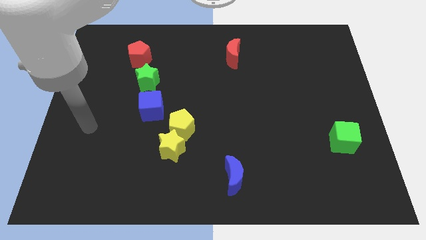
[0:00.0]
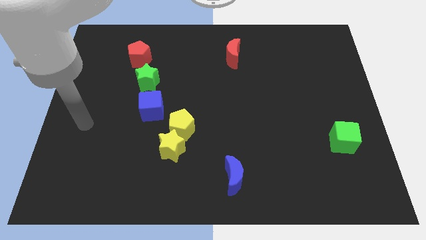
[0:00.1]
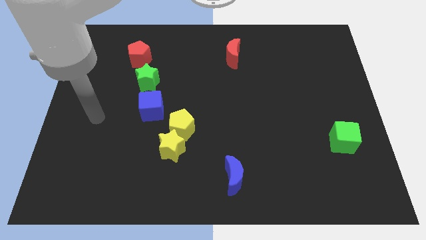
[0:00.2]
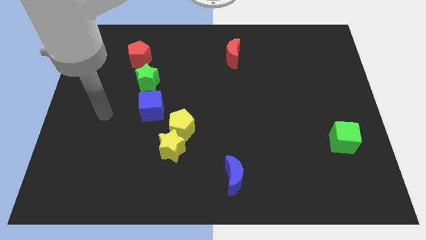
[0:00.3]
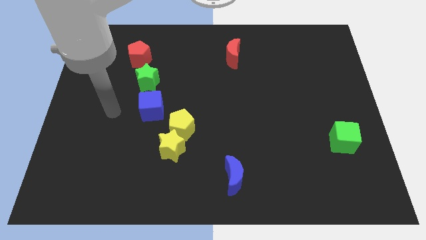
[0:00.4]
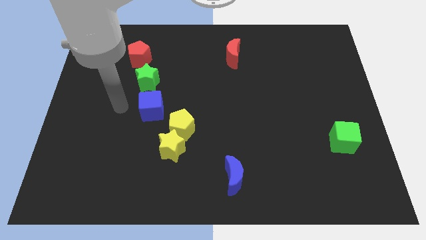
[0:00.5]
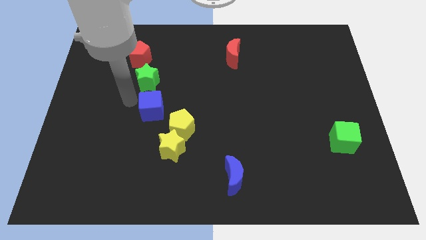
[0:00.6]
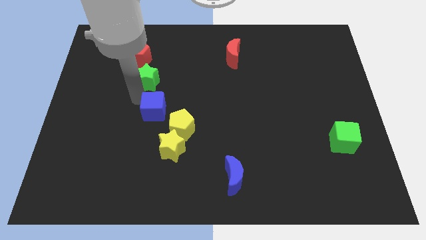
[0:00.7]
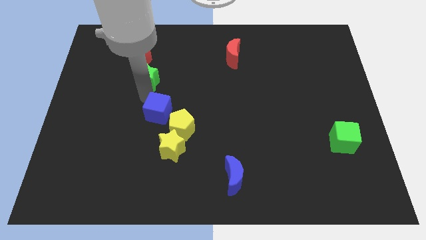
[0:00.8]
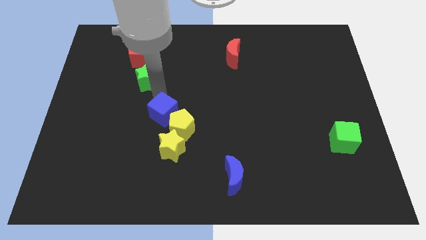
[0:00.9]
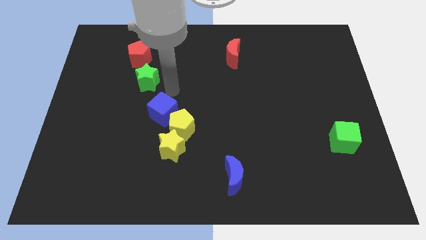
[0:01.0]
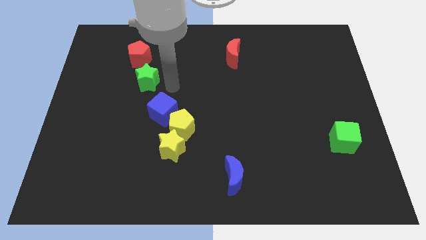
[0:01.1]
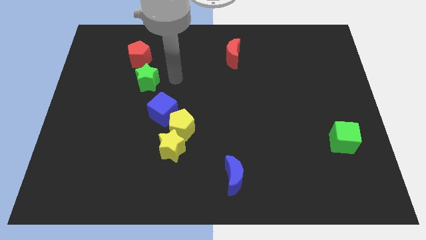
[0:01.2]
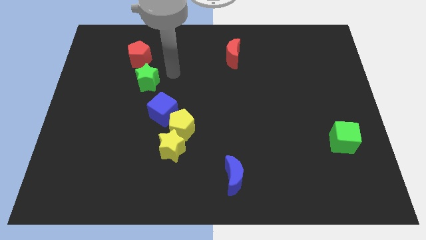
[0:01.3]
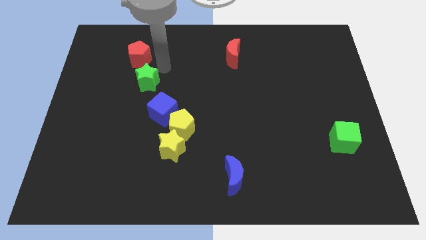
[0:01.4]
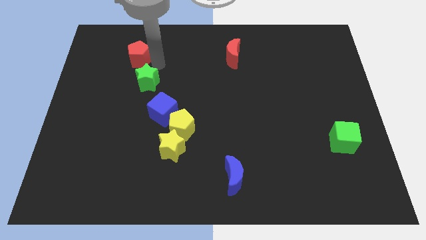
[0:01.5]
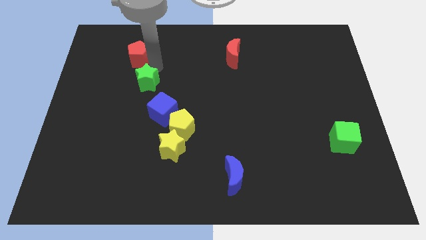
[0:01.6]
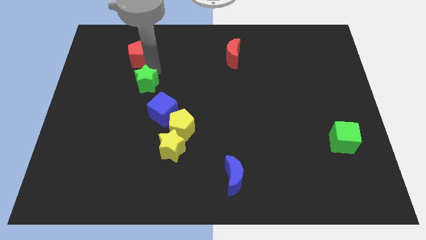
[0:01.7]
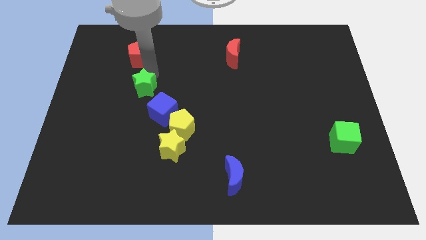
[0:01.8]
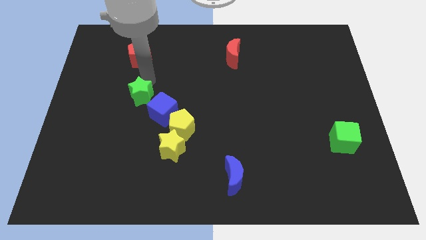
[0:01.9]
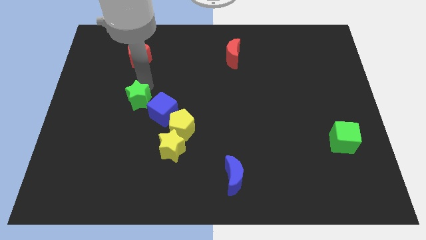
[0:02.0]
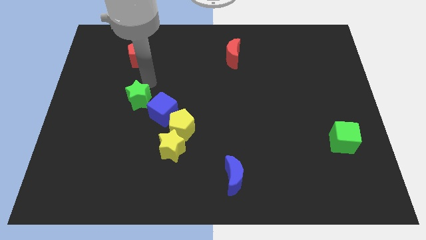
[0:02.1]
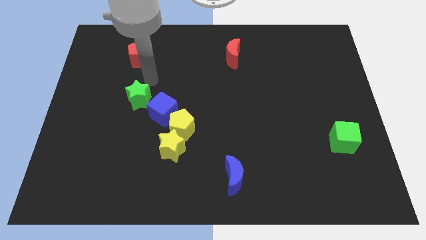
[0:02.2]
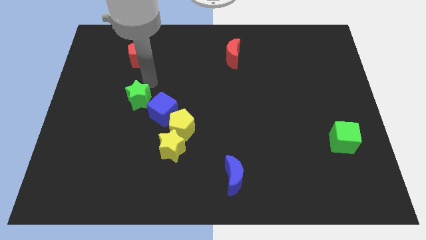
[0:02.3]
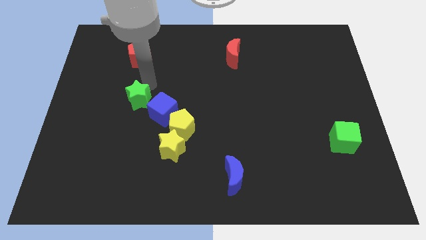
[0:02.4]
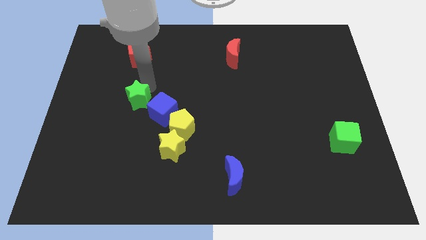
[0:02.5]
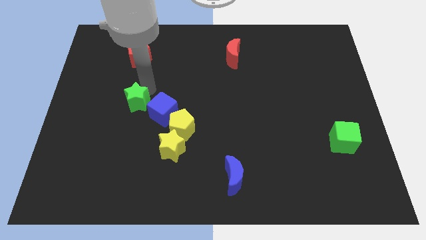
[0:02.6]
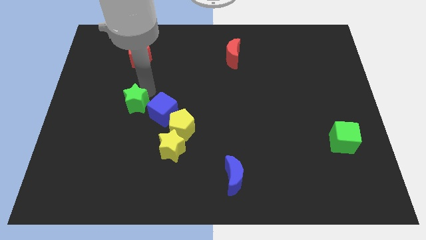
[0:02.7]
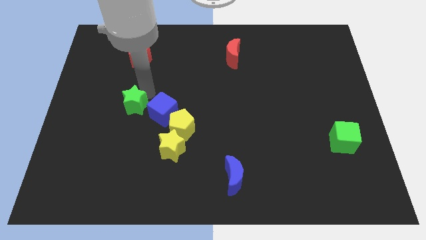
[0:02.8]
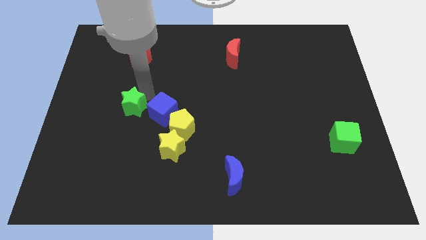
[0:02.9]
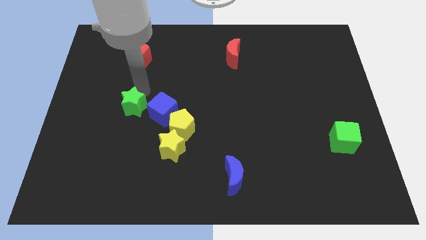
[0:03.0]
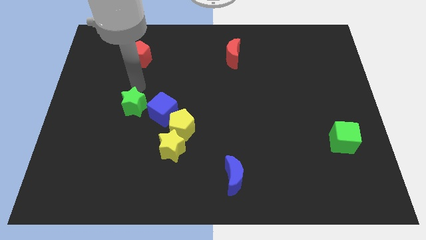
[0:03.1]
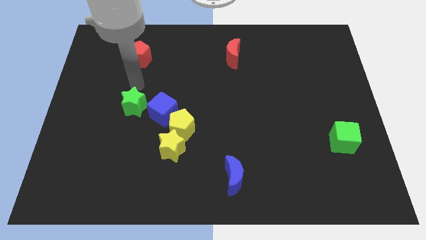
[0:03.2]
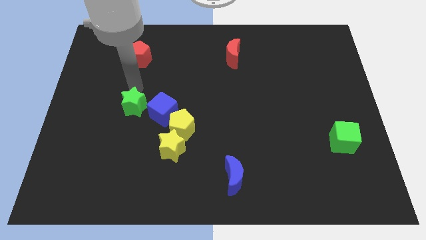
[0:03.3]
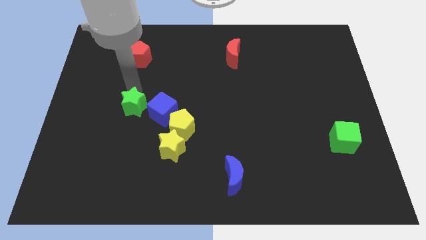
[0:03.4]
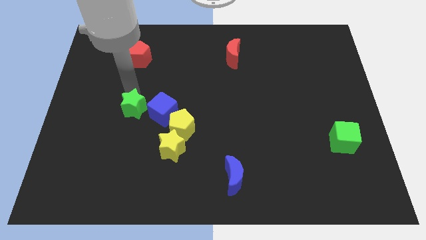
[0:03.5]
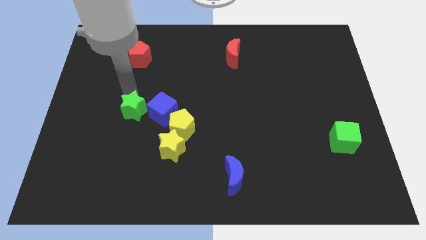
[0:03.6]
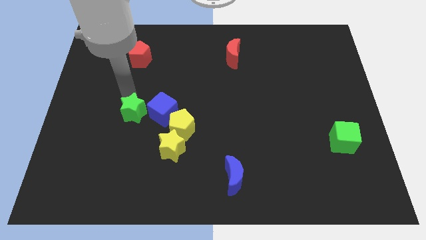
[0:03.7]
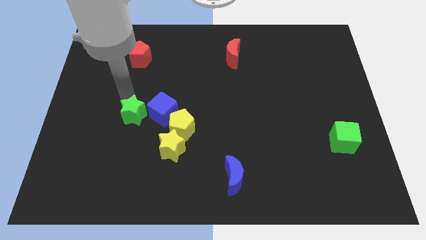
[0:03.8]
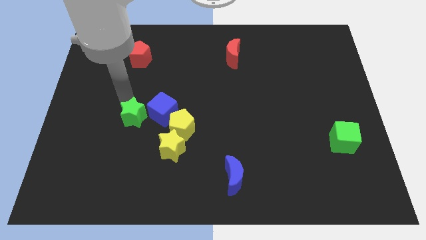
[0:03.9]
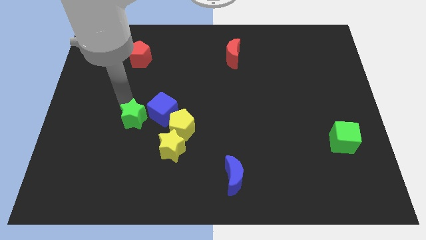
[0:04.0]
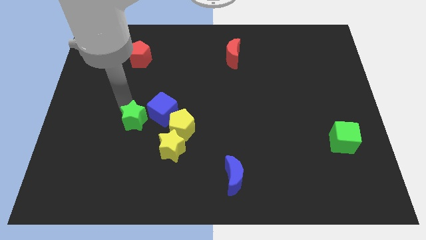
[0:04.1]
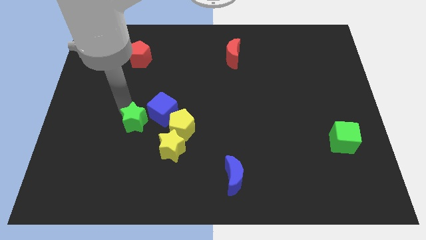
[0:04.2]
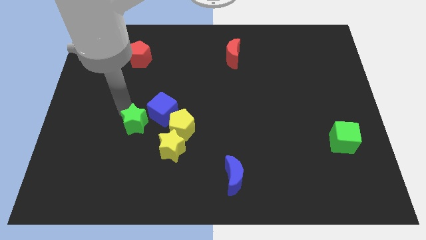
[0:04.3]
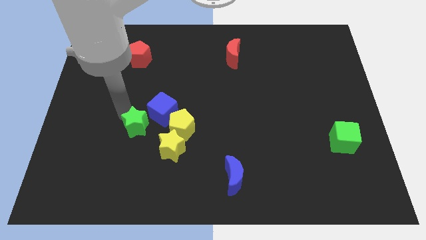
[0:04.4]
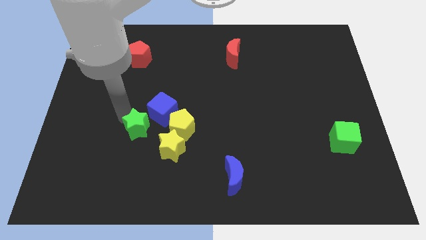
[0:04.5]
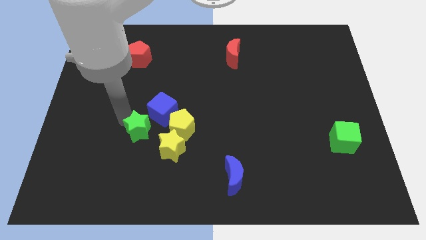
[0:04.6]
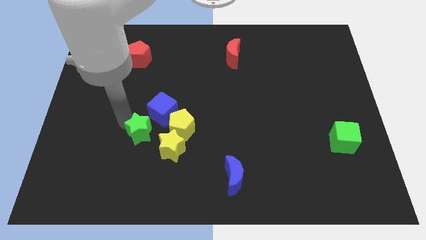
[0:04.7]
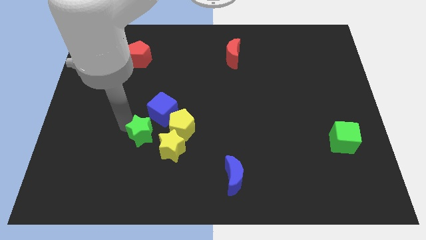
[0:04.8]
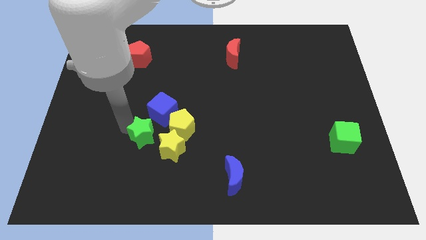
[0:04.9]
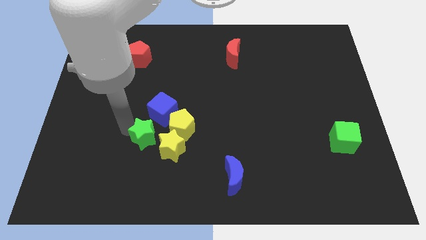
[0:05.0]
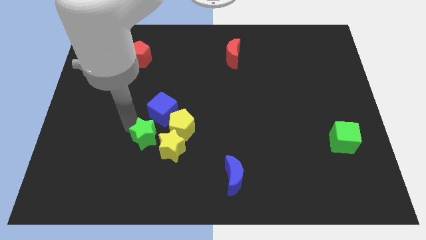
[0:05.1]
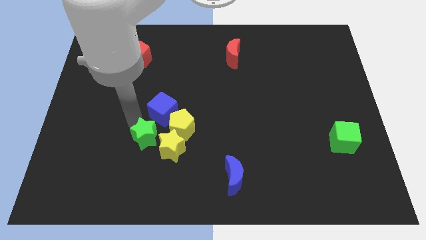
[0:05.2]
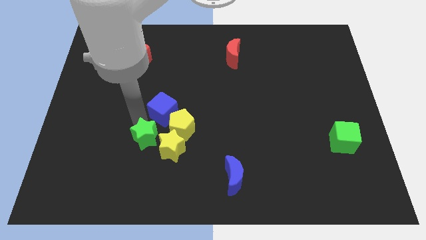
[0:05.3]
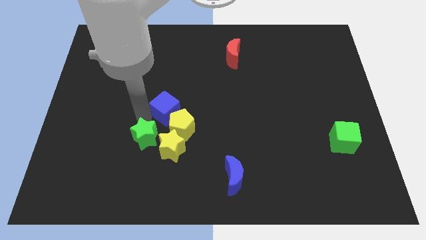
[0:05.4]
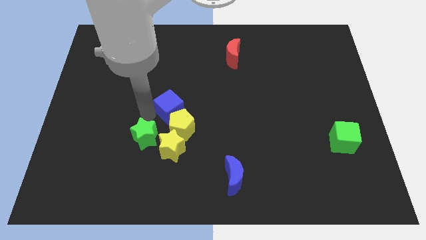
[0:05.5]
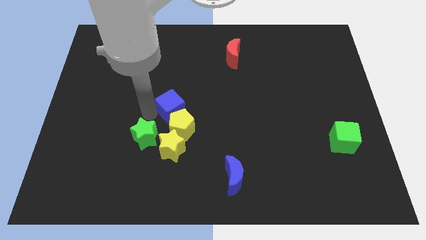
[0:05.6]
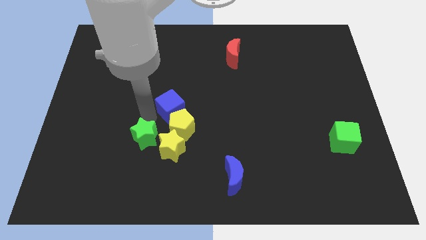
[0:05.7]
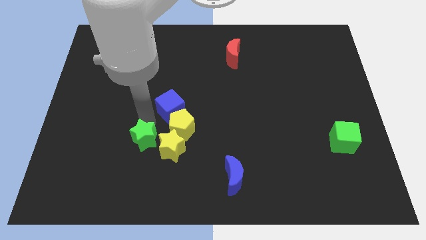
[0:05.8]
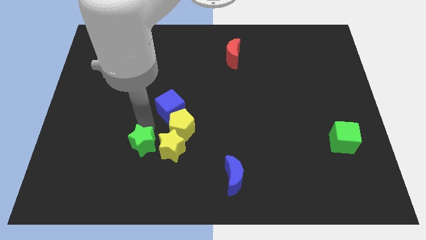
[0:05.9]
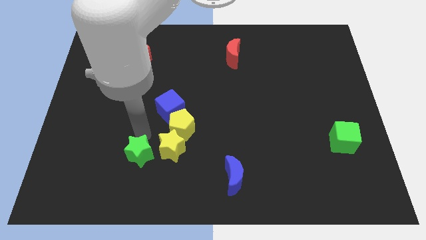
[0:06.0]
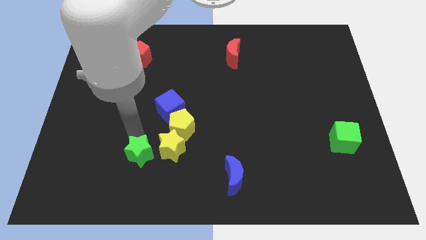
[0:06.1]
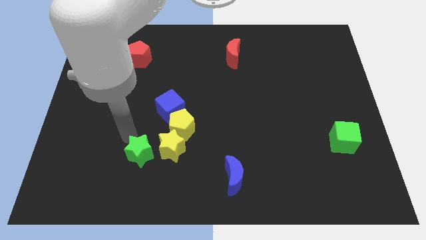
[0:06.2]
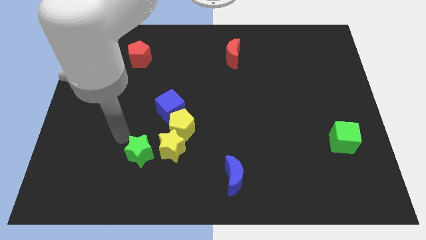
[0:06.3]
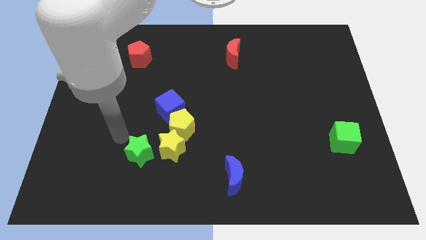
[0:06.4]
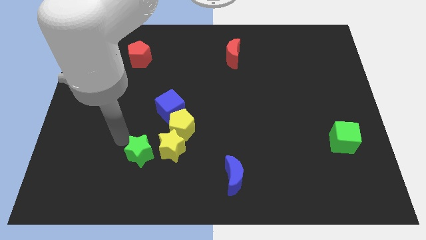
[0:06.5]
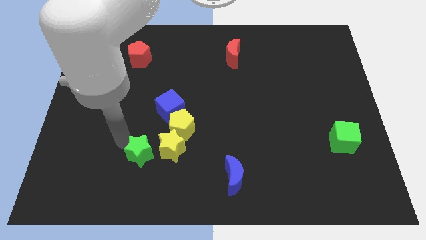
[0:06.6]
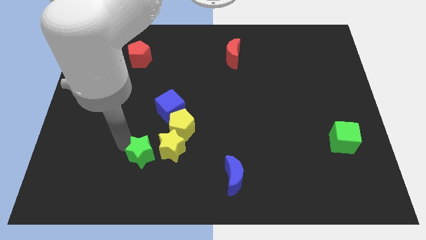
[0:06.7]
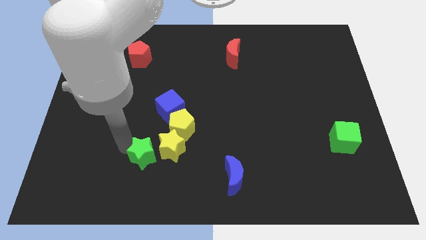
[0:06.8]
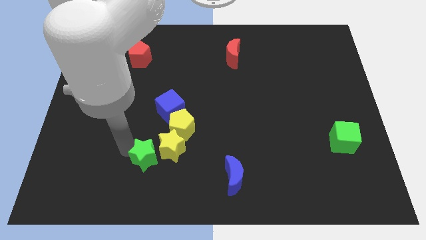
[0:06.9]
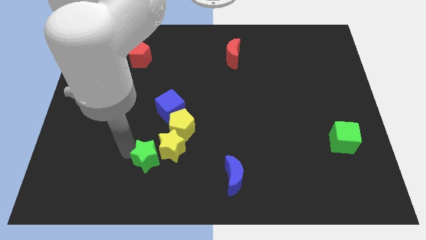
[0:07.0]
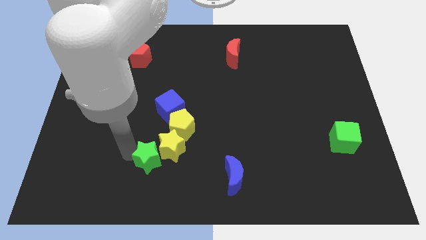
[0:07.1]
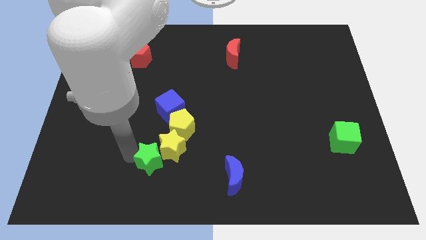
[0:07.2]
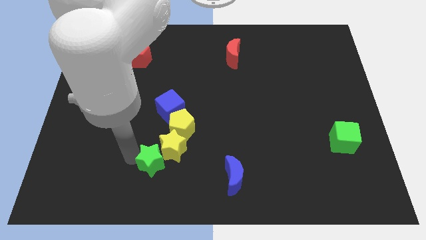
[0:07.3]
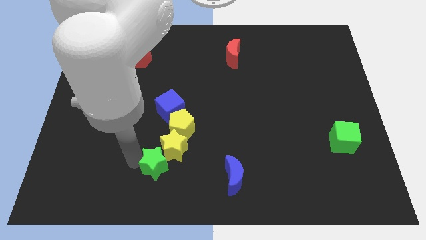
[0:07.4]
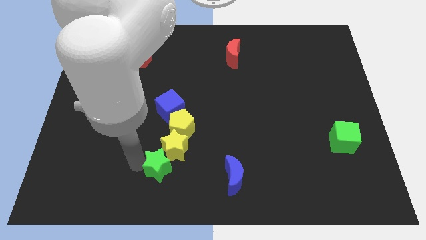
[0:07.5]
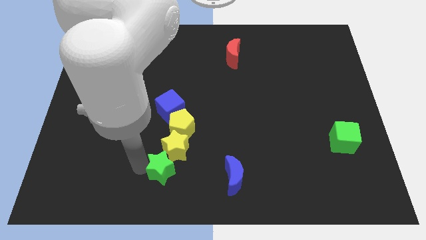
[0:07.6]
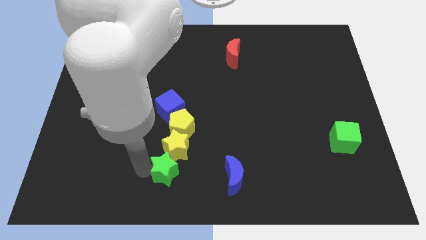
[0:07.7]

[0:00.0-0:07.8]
slide the green star to the bottom
